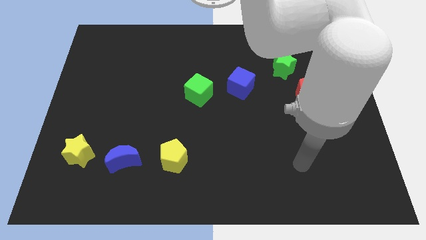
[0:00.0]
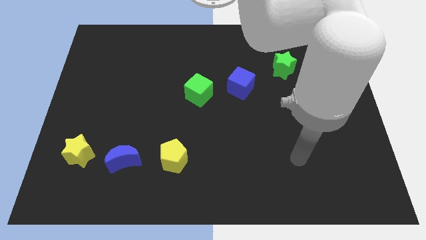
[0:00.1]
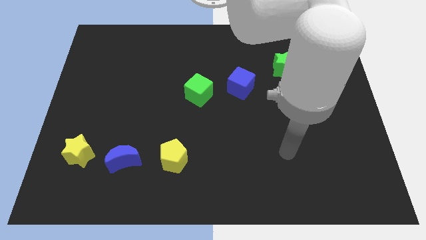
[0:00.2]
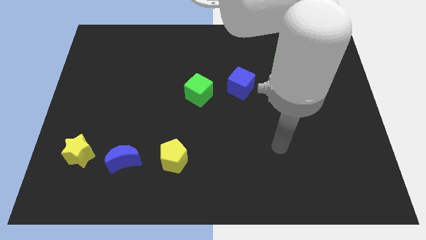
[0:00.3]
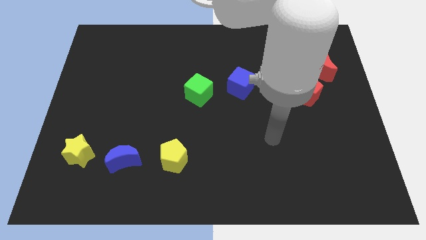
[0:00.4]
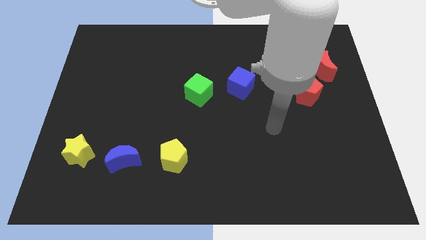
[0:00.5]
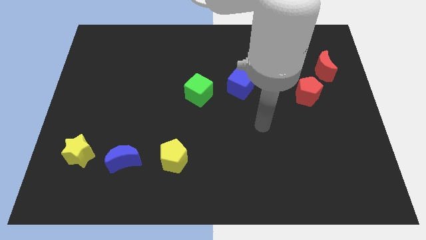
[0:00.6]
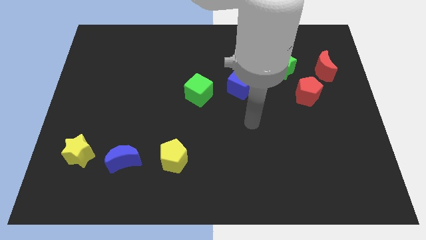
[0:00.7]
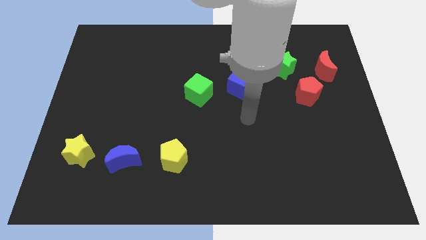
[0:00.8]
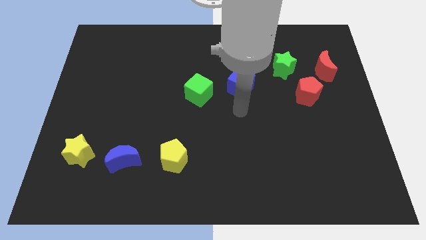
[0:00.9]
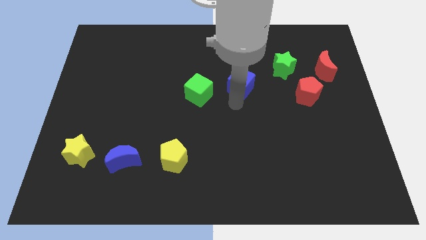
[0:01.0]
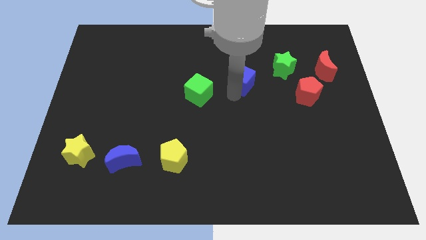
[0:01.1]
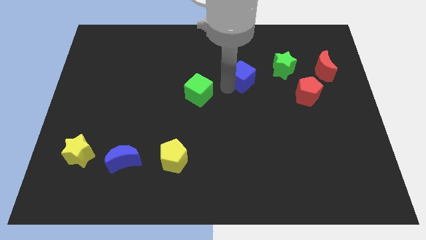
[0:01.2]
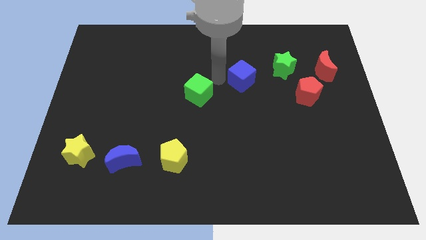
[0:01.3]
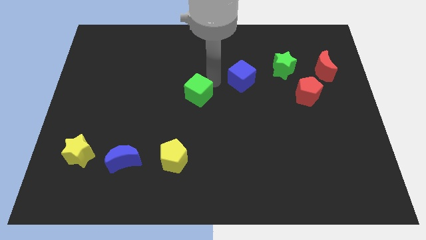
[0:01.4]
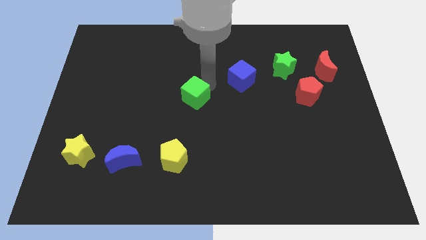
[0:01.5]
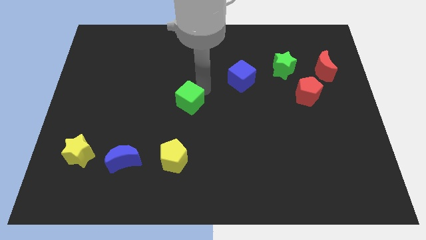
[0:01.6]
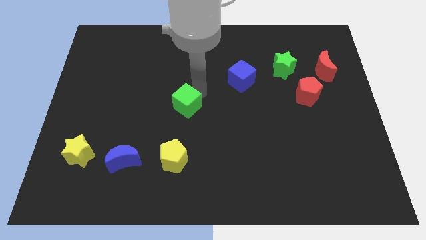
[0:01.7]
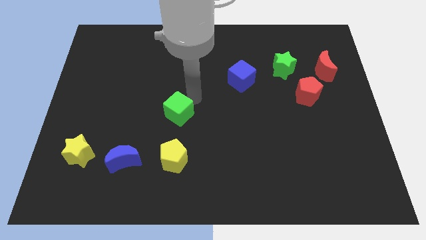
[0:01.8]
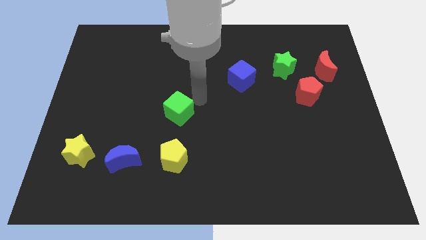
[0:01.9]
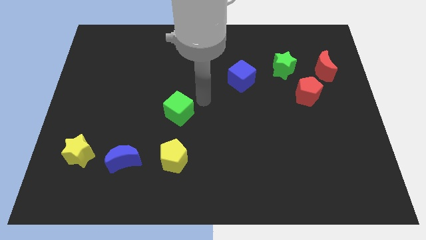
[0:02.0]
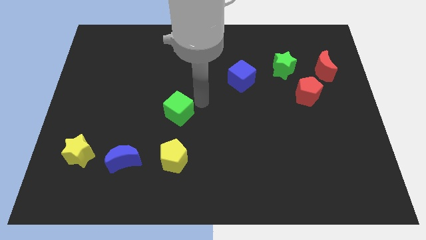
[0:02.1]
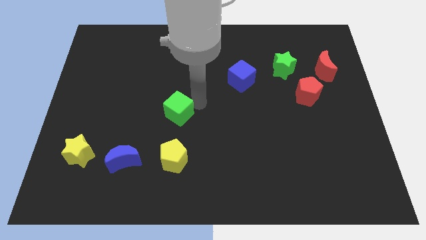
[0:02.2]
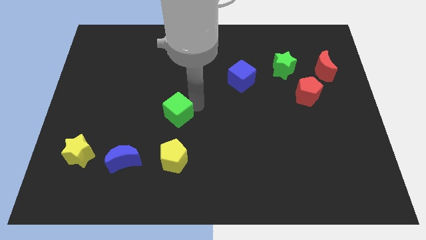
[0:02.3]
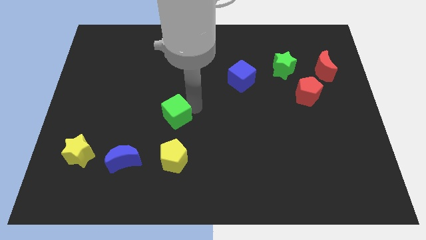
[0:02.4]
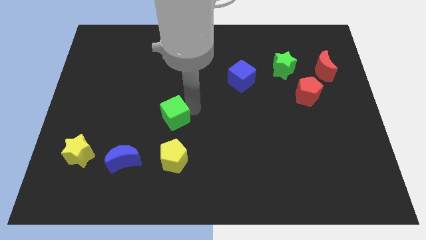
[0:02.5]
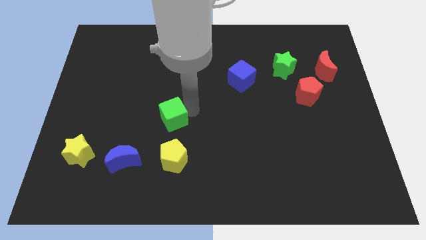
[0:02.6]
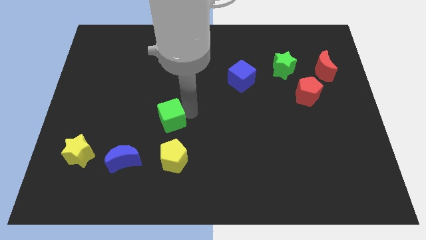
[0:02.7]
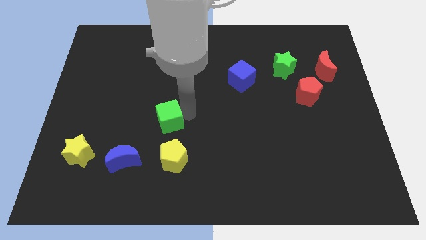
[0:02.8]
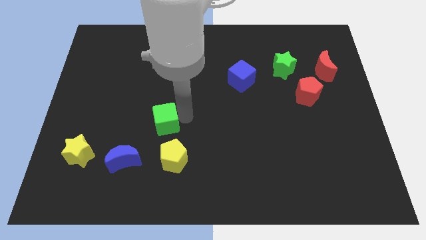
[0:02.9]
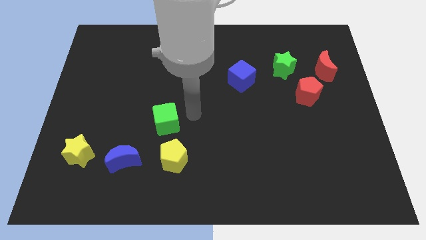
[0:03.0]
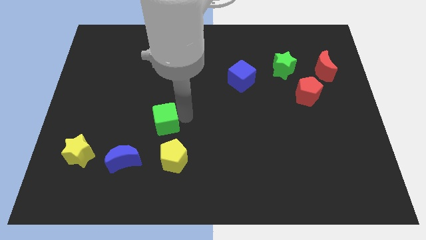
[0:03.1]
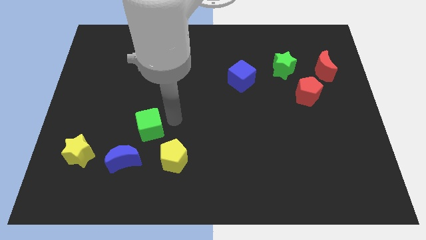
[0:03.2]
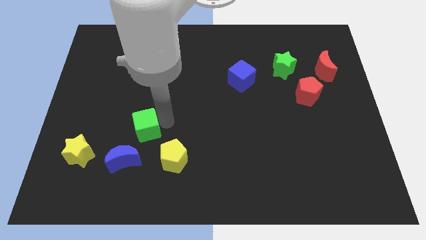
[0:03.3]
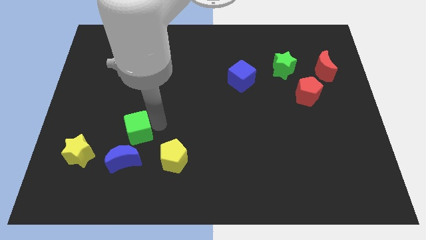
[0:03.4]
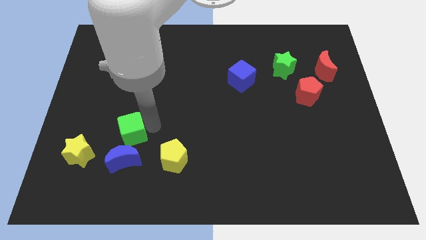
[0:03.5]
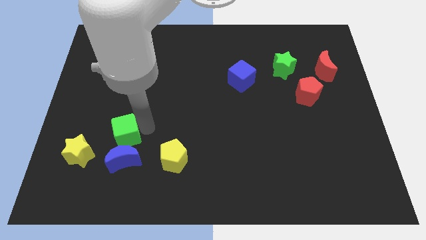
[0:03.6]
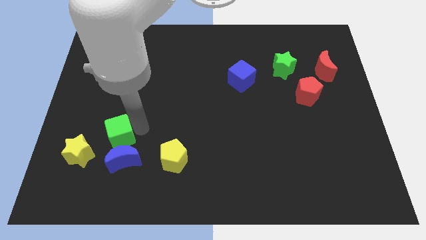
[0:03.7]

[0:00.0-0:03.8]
slide the green cube downwards and left

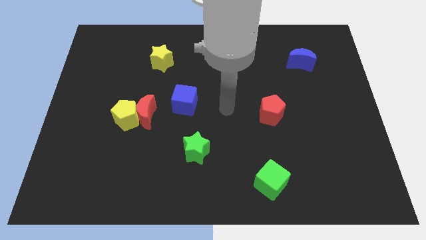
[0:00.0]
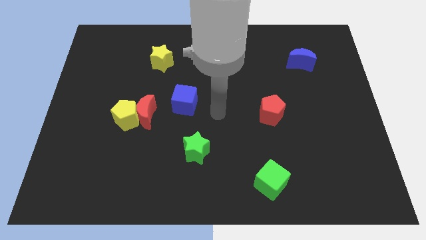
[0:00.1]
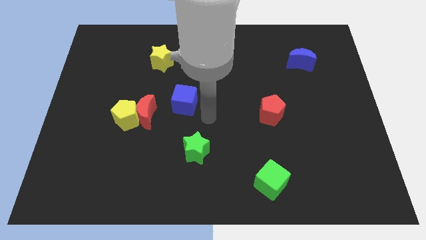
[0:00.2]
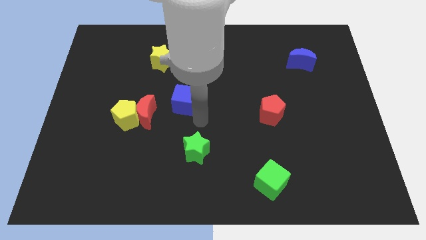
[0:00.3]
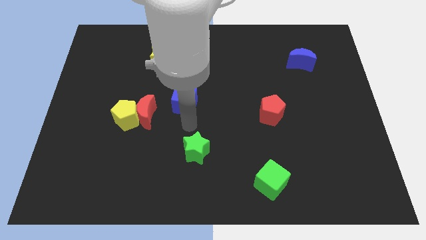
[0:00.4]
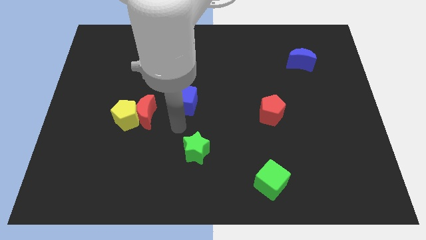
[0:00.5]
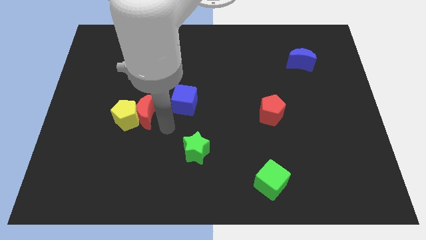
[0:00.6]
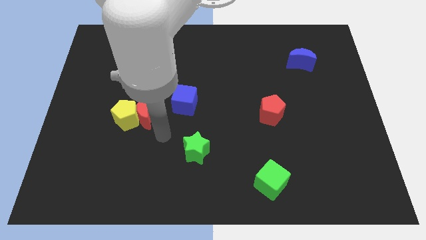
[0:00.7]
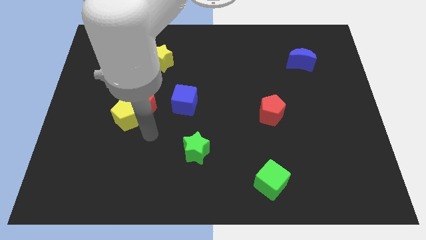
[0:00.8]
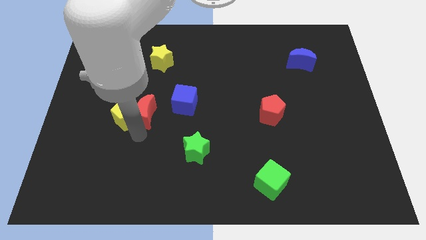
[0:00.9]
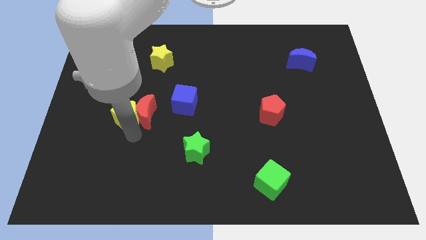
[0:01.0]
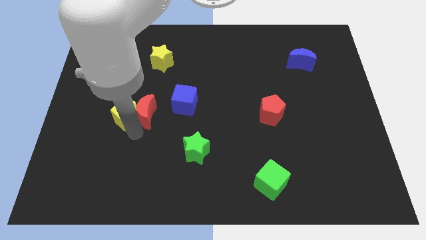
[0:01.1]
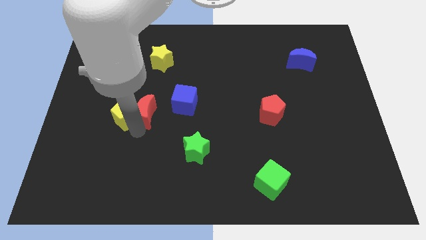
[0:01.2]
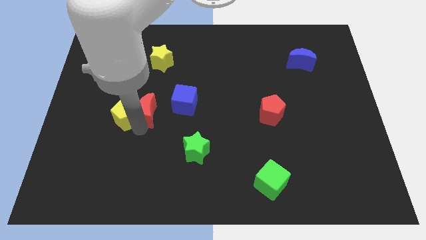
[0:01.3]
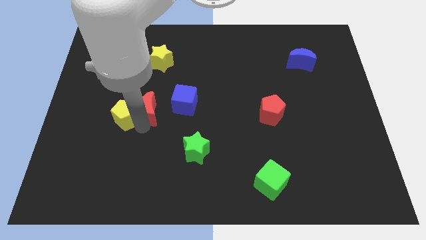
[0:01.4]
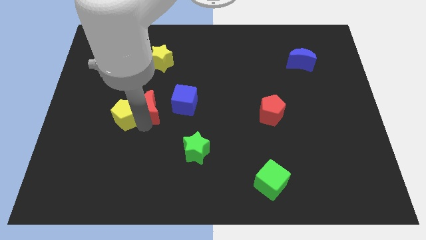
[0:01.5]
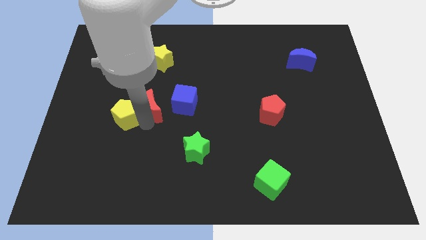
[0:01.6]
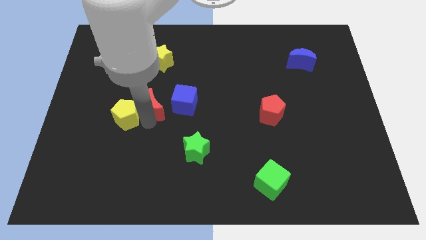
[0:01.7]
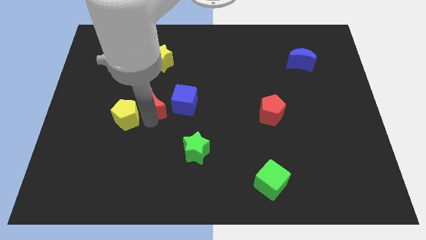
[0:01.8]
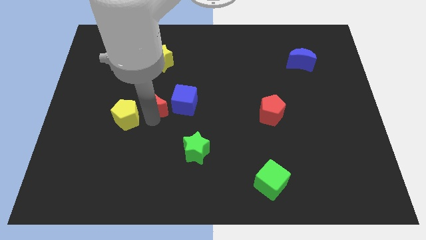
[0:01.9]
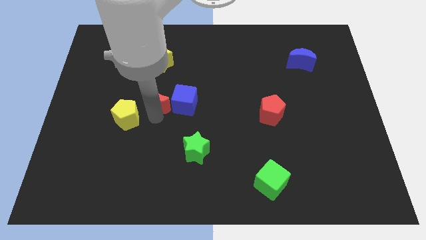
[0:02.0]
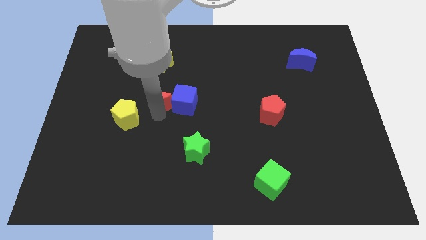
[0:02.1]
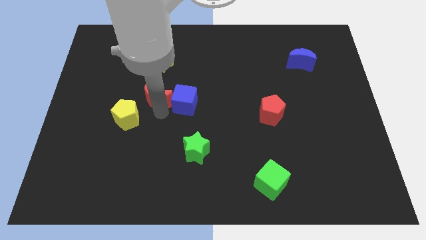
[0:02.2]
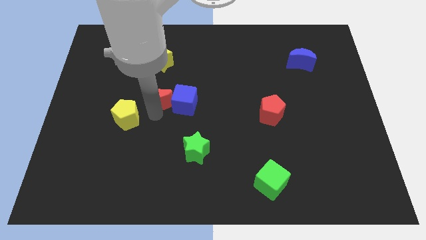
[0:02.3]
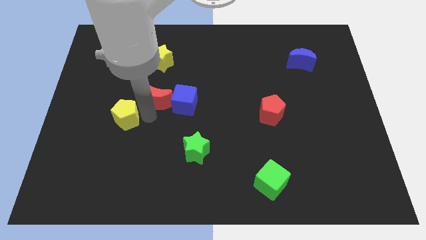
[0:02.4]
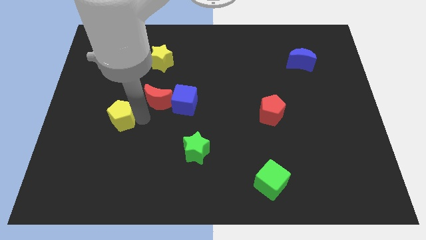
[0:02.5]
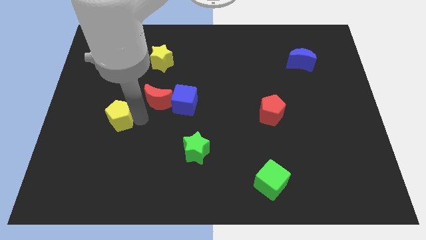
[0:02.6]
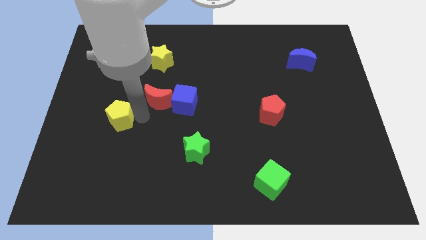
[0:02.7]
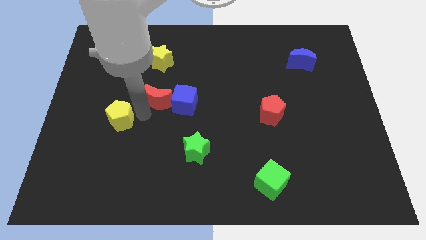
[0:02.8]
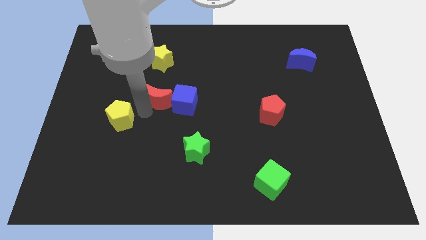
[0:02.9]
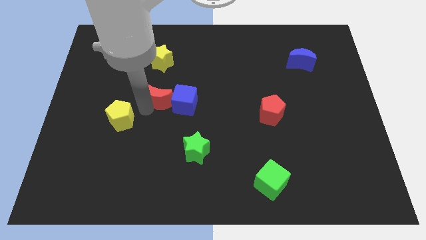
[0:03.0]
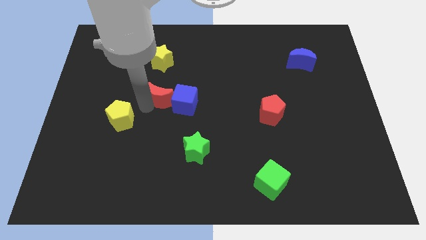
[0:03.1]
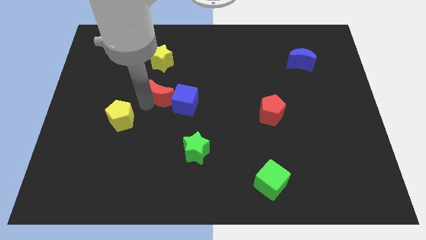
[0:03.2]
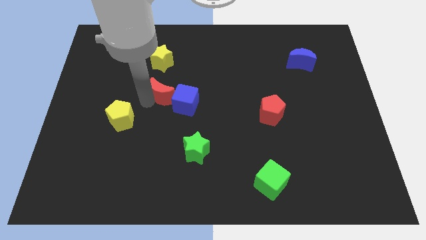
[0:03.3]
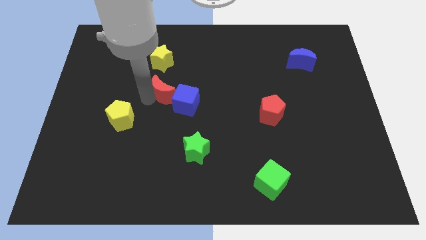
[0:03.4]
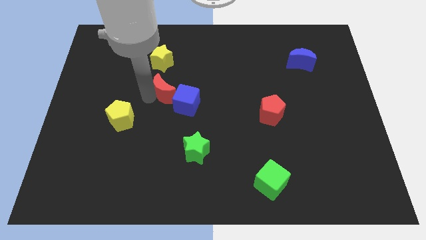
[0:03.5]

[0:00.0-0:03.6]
slightly move the red moon up and to the right diagonally

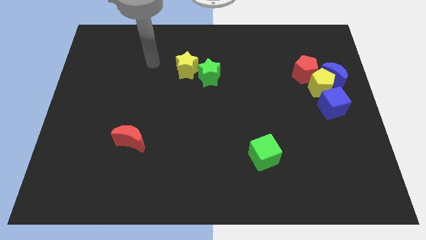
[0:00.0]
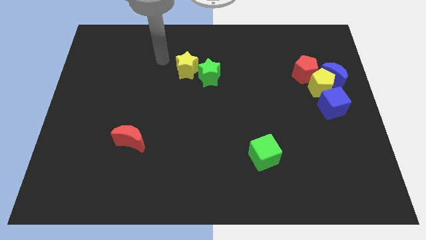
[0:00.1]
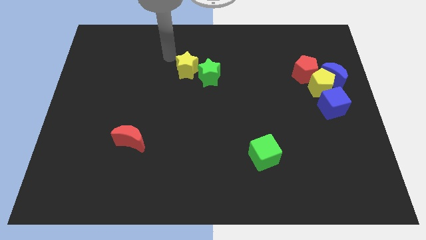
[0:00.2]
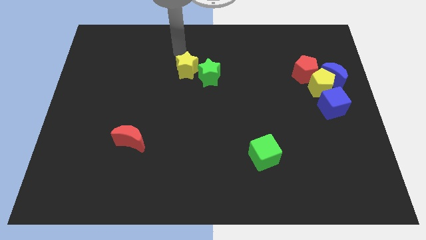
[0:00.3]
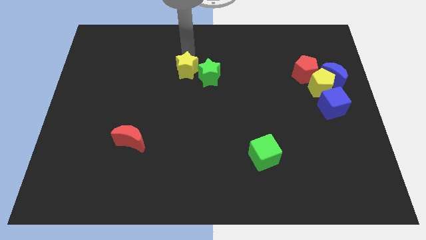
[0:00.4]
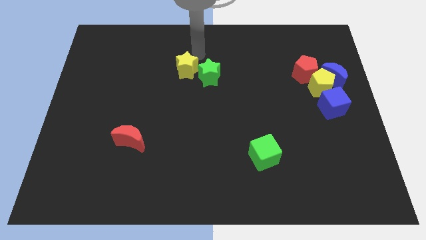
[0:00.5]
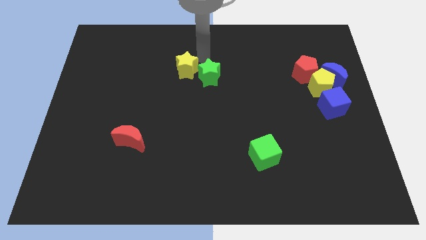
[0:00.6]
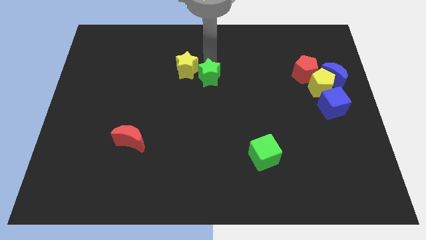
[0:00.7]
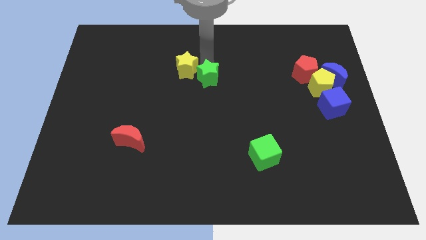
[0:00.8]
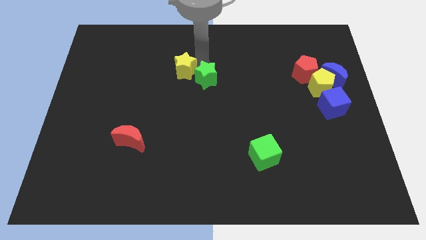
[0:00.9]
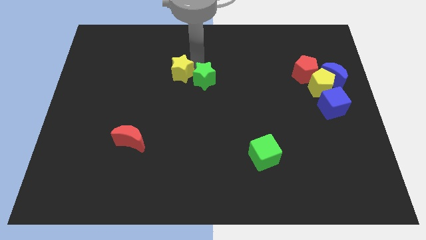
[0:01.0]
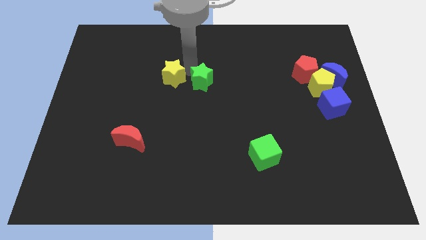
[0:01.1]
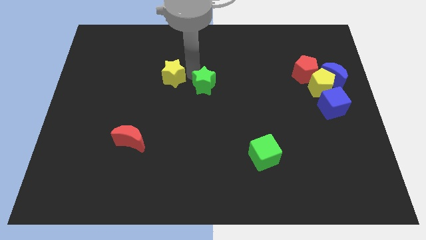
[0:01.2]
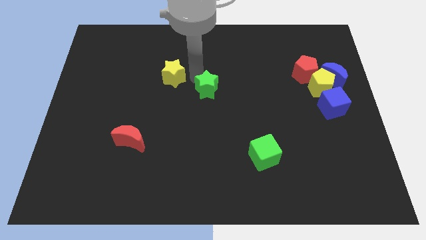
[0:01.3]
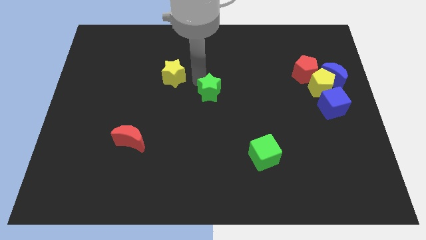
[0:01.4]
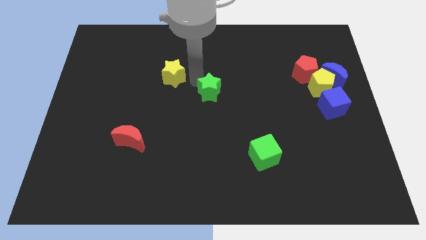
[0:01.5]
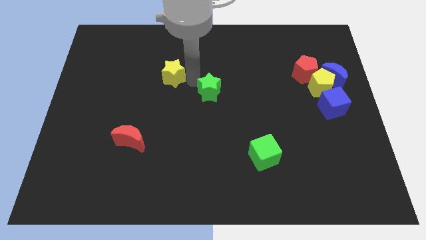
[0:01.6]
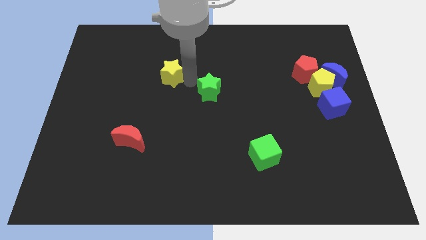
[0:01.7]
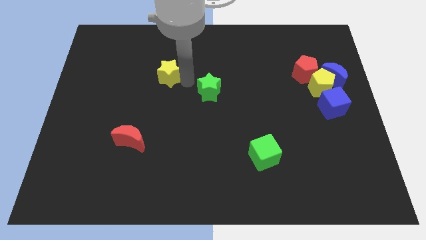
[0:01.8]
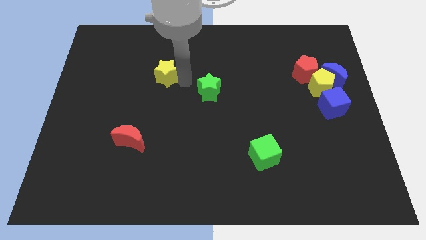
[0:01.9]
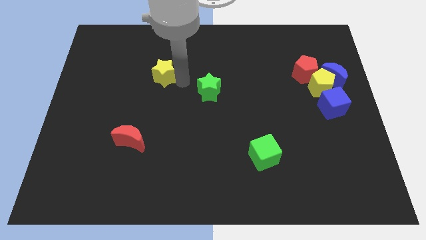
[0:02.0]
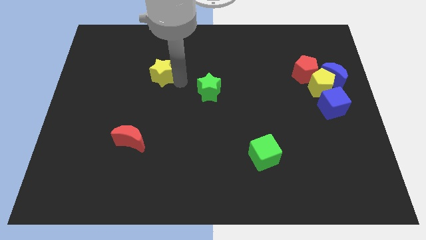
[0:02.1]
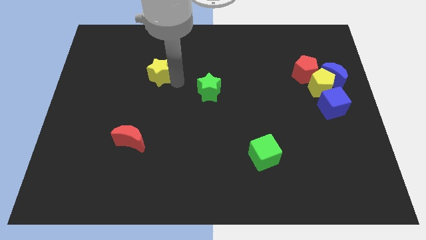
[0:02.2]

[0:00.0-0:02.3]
slightly slide the yellow star left
